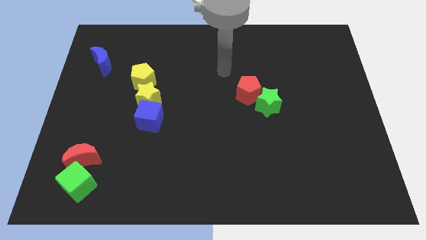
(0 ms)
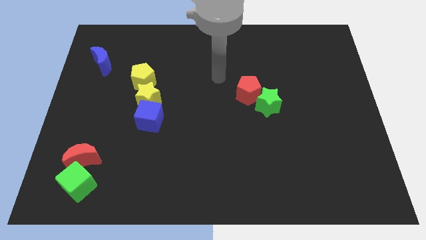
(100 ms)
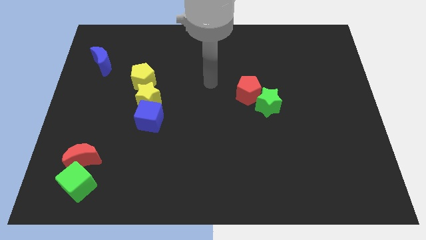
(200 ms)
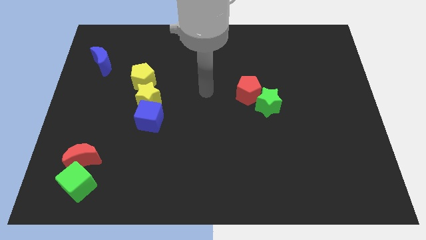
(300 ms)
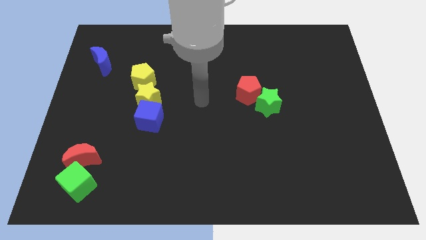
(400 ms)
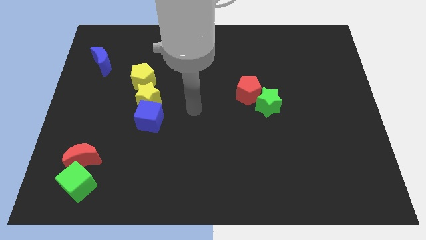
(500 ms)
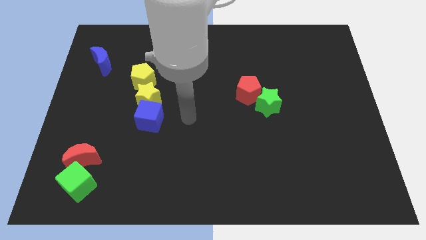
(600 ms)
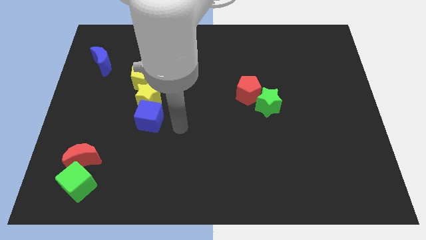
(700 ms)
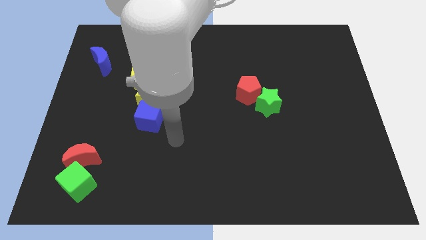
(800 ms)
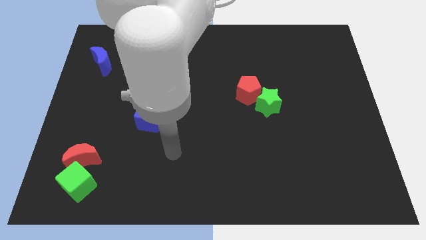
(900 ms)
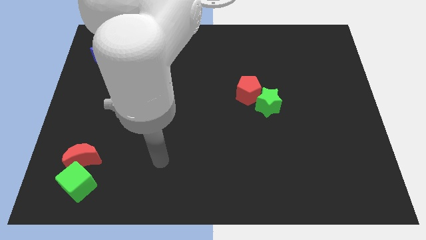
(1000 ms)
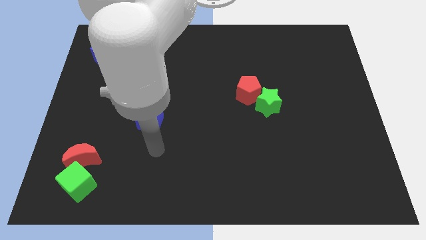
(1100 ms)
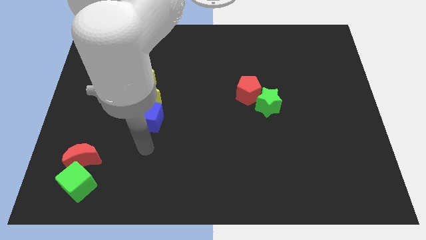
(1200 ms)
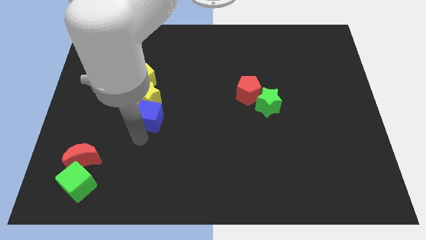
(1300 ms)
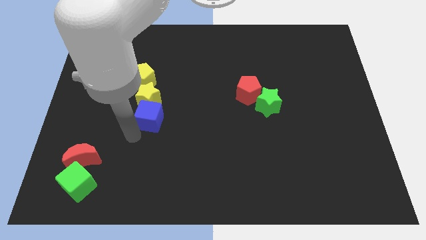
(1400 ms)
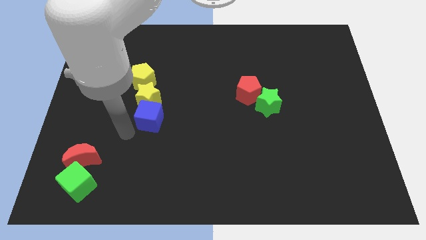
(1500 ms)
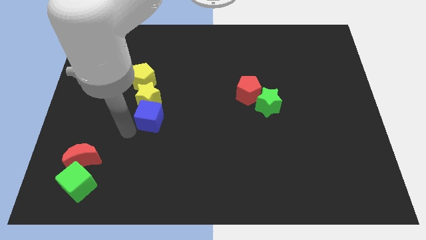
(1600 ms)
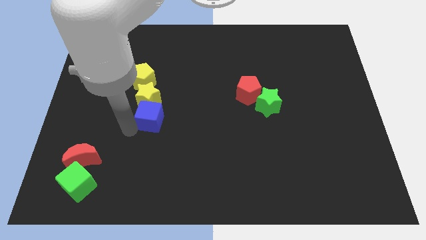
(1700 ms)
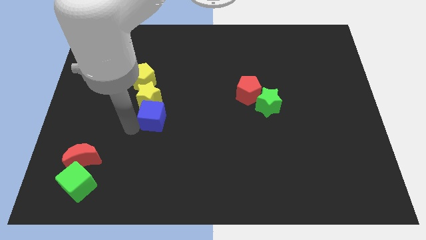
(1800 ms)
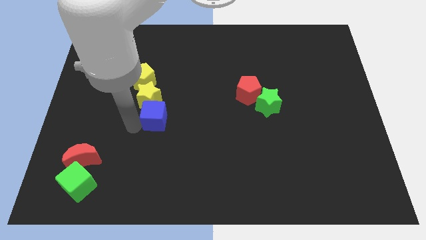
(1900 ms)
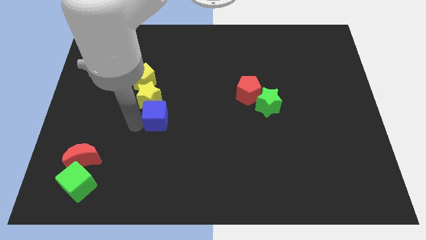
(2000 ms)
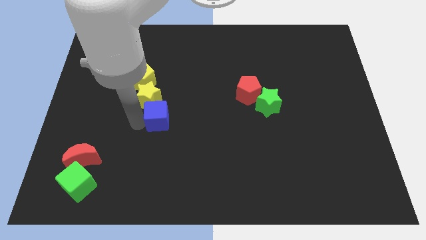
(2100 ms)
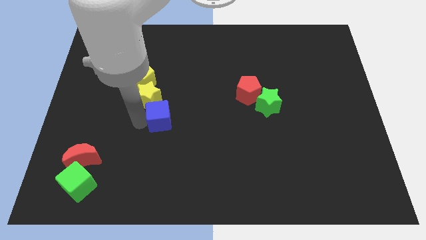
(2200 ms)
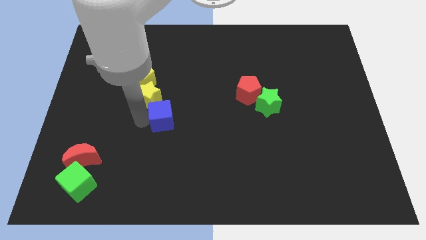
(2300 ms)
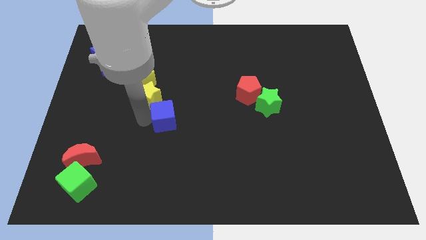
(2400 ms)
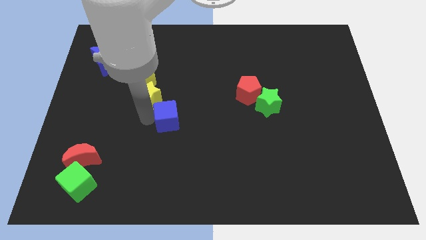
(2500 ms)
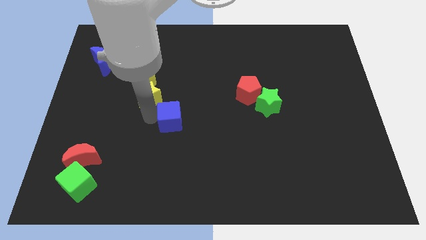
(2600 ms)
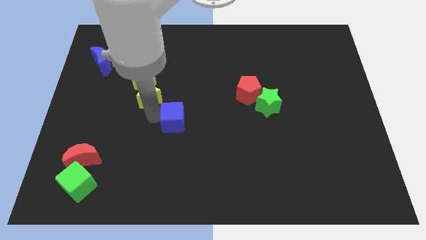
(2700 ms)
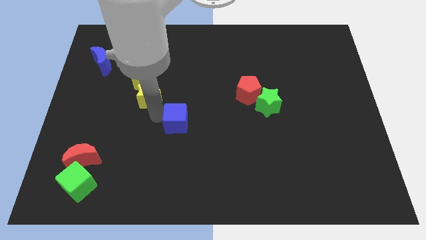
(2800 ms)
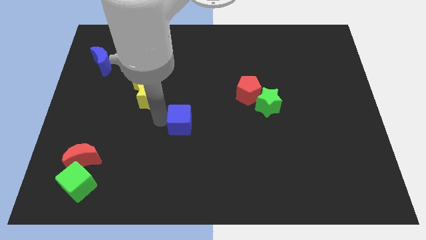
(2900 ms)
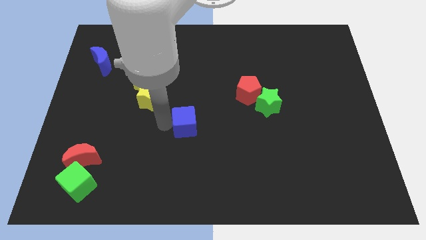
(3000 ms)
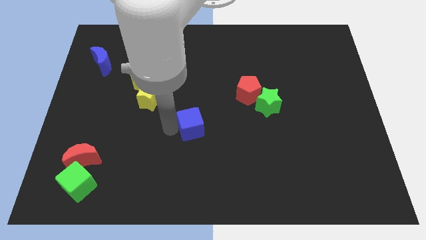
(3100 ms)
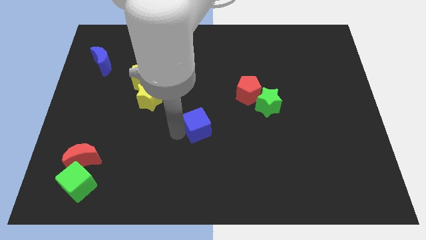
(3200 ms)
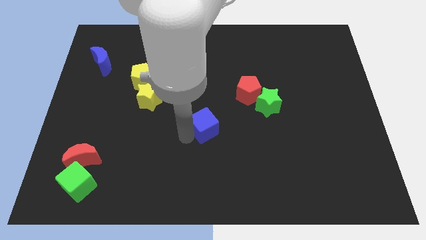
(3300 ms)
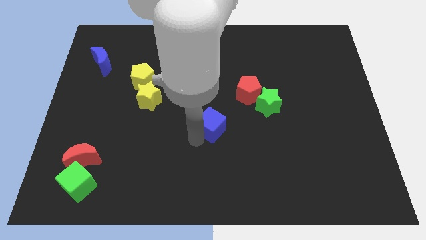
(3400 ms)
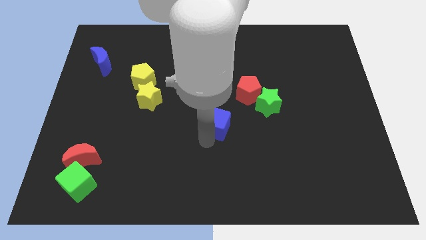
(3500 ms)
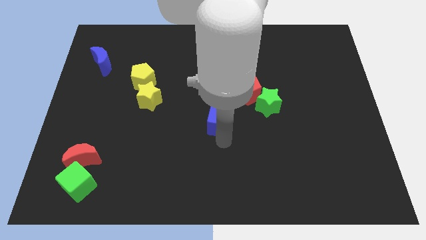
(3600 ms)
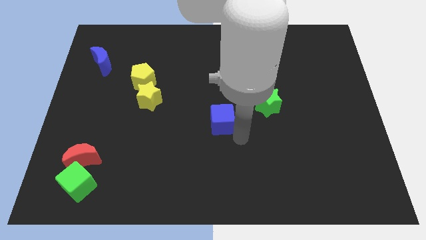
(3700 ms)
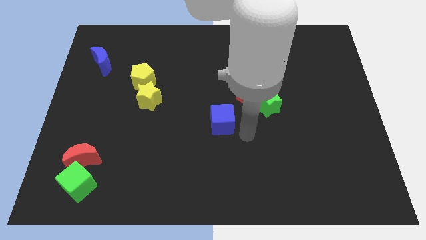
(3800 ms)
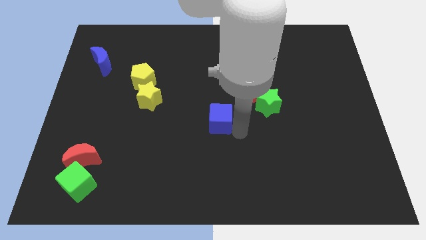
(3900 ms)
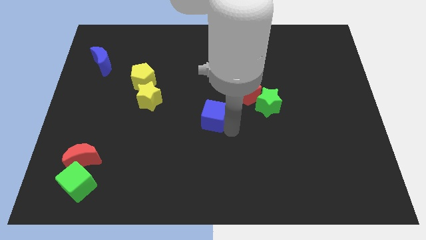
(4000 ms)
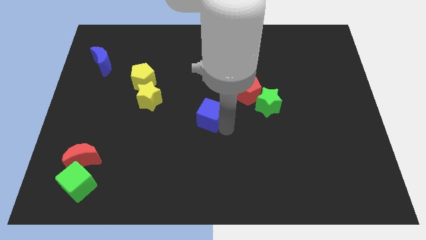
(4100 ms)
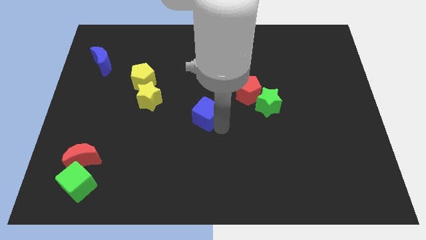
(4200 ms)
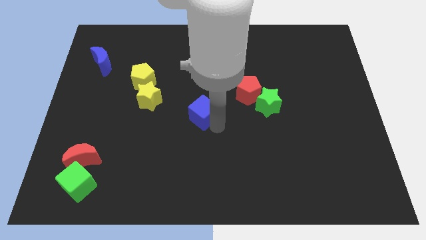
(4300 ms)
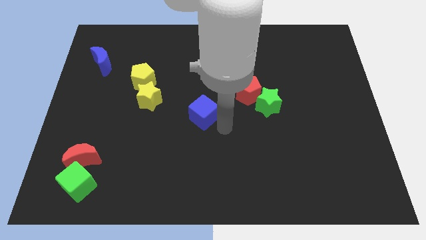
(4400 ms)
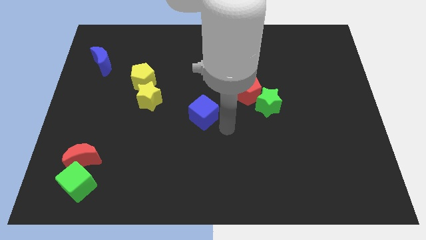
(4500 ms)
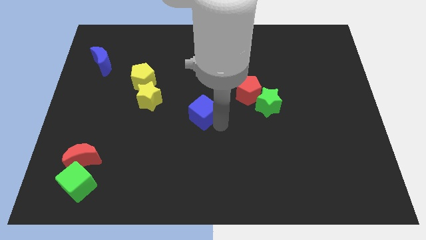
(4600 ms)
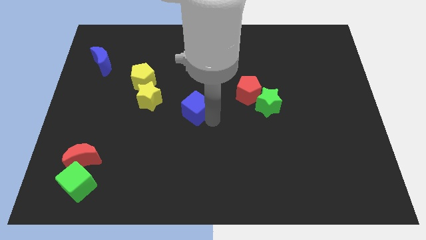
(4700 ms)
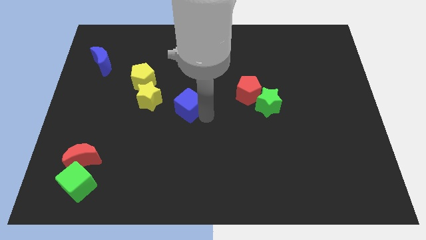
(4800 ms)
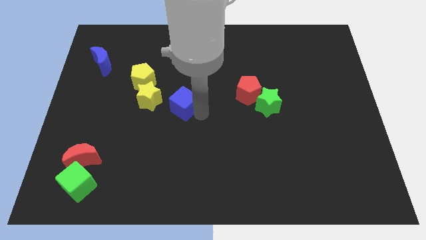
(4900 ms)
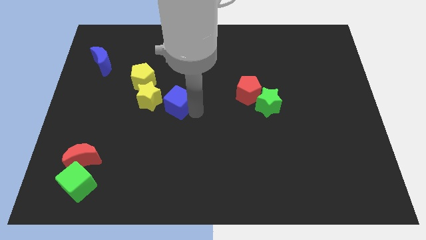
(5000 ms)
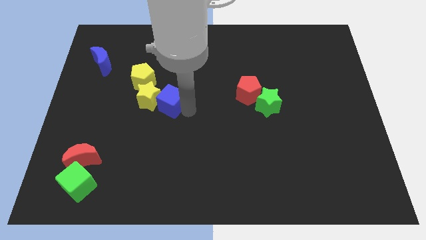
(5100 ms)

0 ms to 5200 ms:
move the blue cube diagonally up and to the right of the yellow star

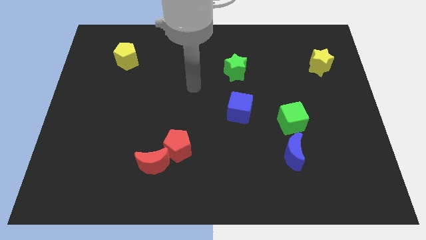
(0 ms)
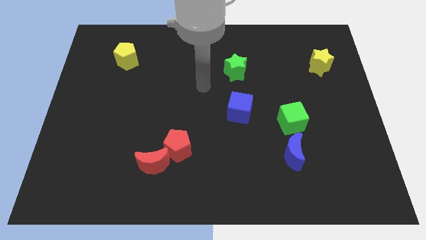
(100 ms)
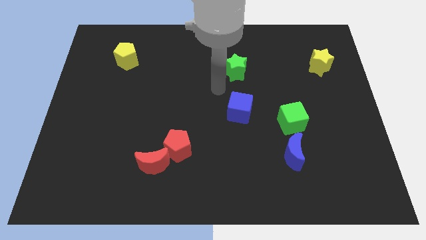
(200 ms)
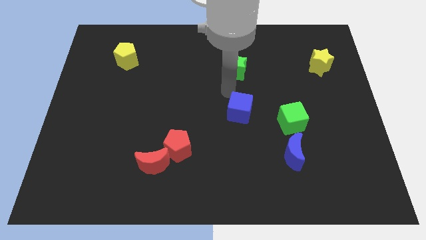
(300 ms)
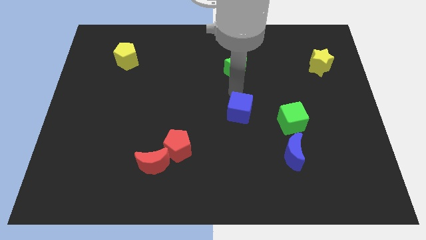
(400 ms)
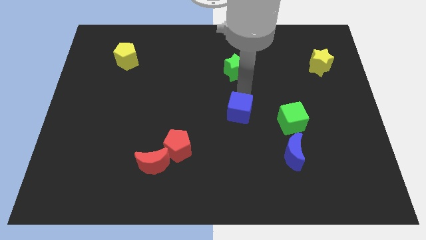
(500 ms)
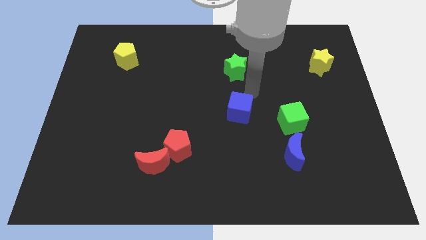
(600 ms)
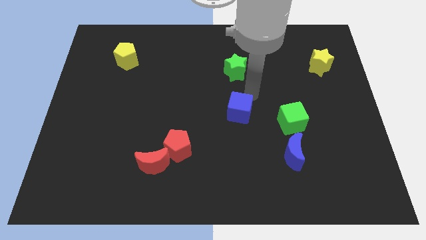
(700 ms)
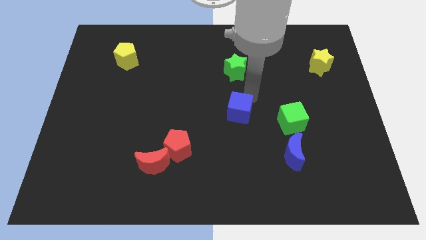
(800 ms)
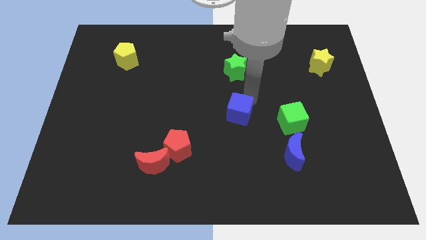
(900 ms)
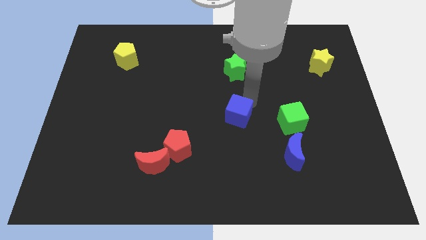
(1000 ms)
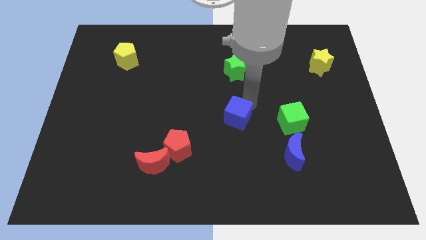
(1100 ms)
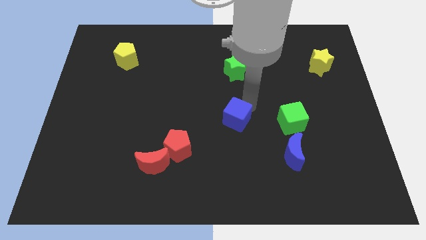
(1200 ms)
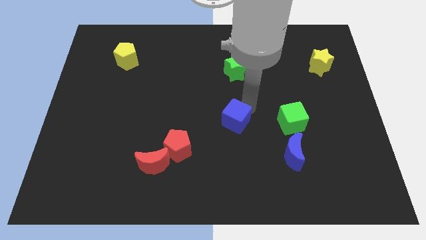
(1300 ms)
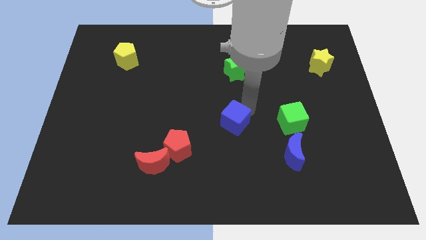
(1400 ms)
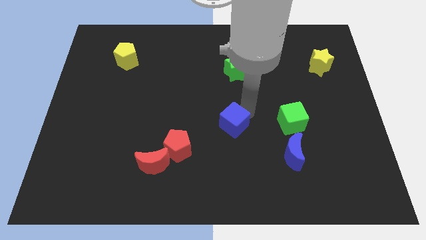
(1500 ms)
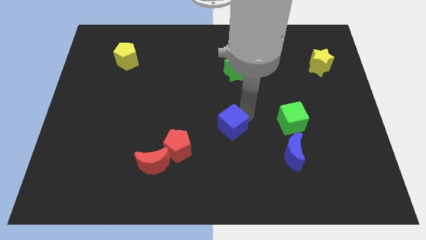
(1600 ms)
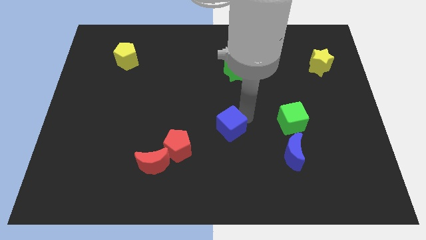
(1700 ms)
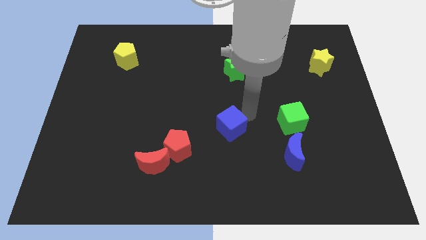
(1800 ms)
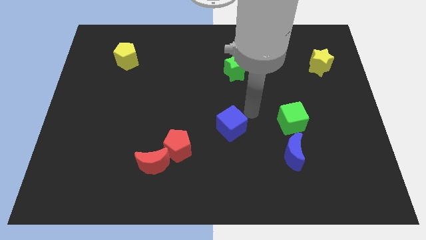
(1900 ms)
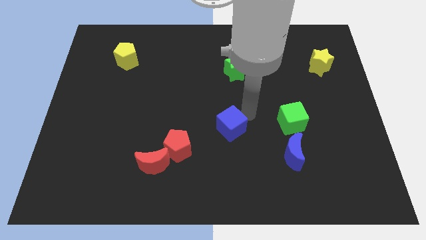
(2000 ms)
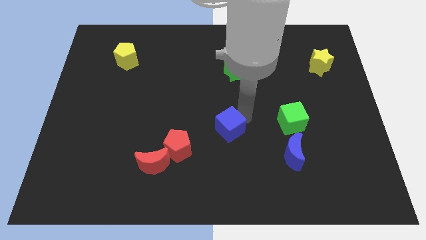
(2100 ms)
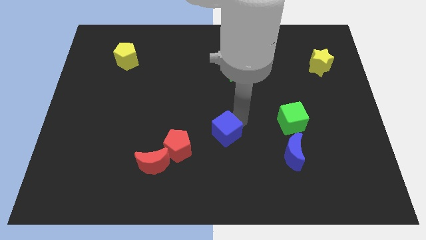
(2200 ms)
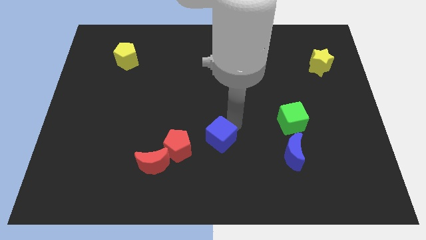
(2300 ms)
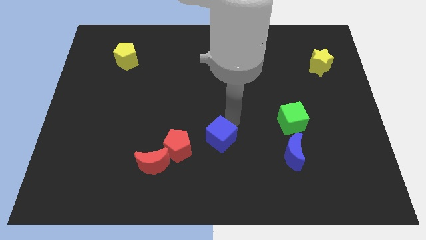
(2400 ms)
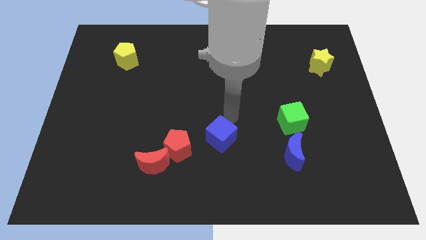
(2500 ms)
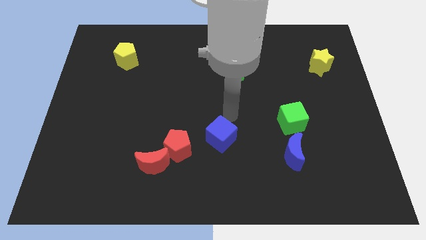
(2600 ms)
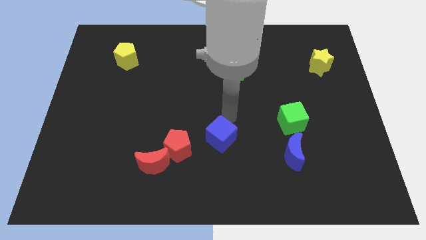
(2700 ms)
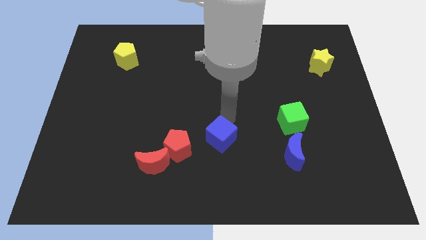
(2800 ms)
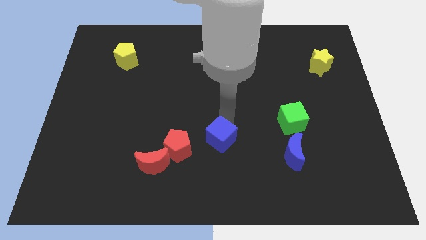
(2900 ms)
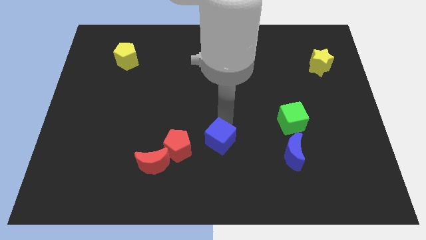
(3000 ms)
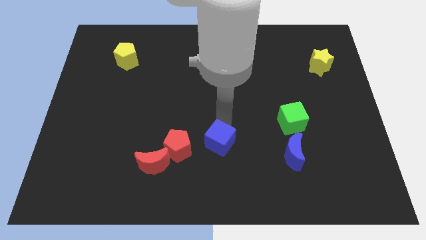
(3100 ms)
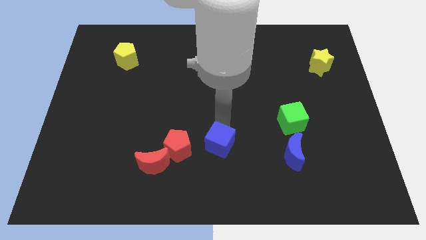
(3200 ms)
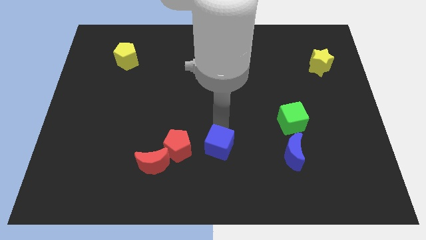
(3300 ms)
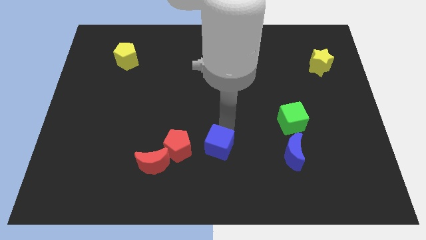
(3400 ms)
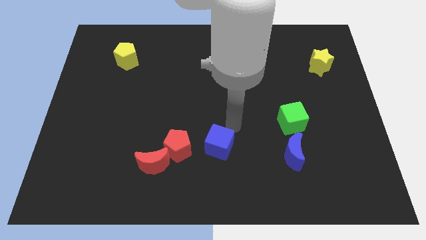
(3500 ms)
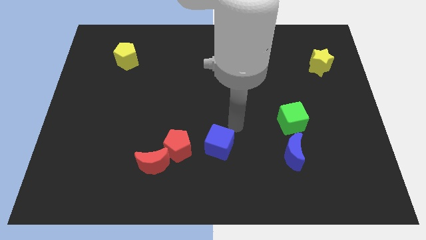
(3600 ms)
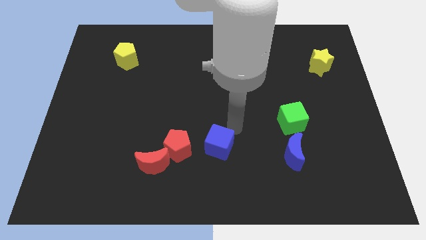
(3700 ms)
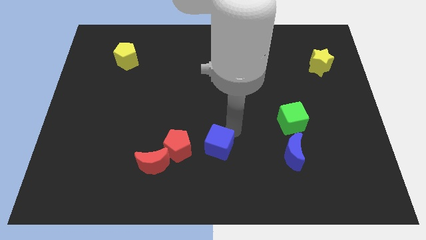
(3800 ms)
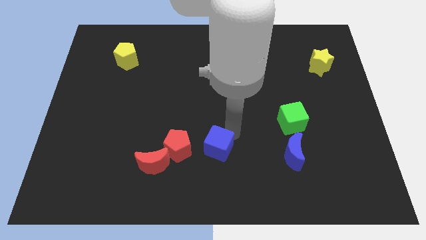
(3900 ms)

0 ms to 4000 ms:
slide the blue cube to the right of the red moon
